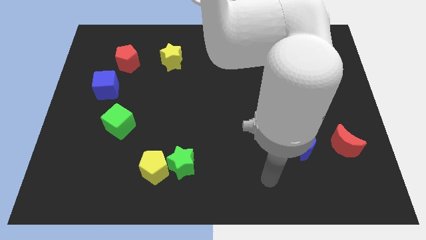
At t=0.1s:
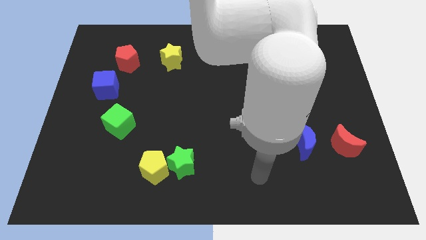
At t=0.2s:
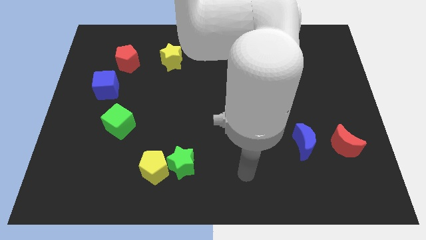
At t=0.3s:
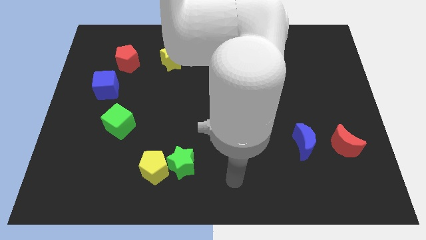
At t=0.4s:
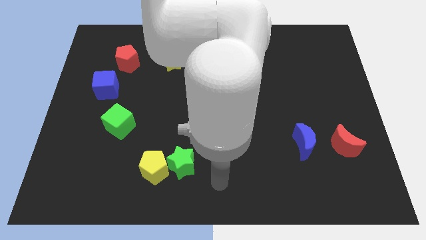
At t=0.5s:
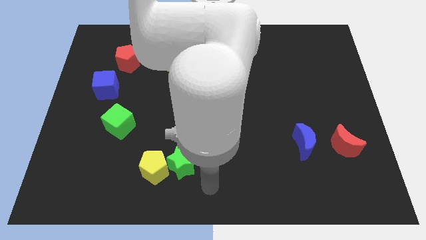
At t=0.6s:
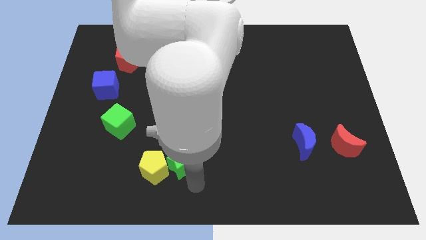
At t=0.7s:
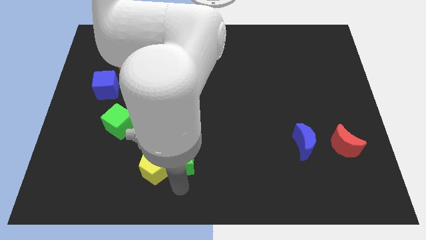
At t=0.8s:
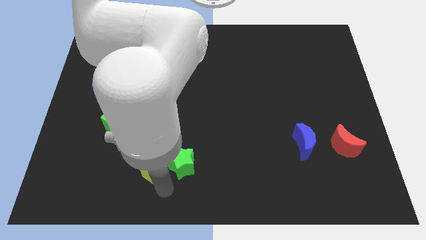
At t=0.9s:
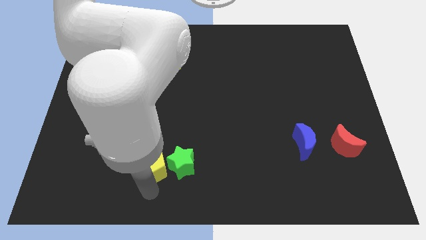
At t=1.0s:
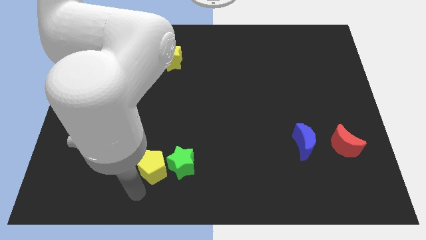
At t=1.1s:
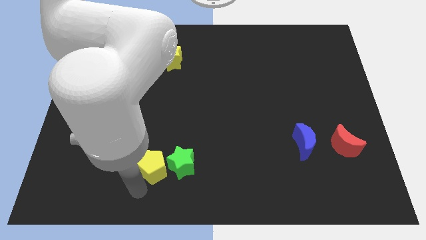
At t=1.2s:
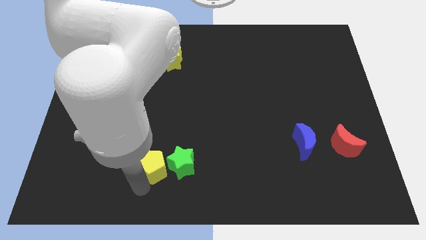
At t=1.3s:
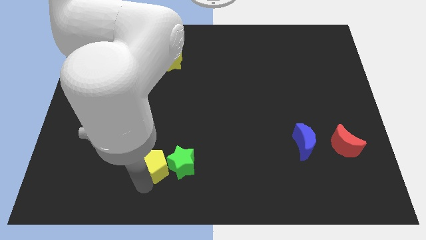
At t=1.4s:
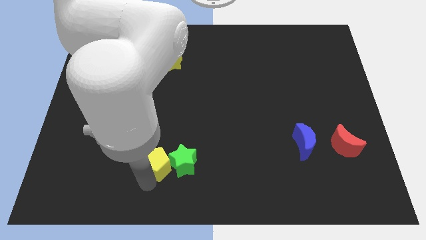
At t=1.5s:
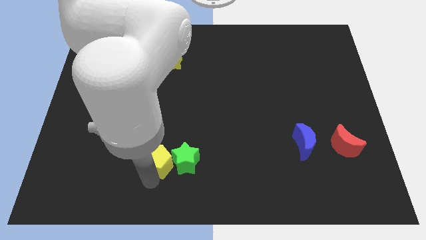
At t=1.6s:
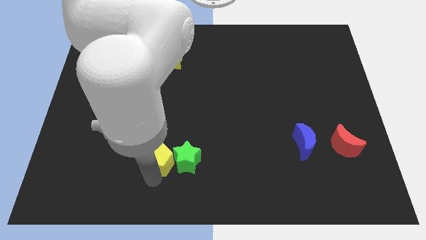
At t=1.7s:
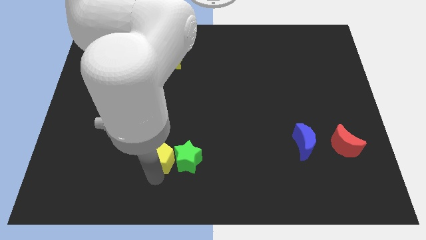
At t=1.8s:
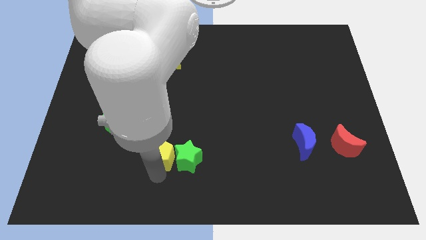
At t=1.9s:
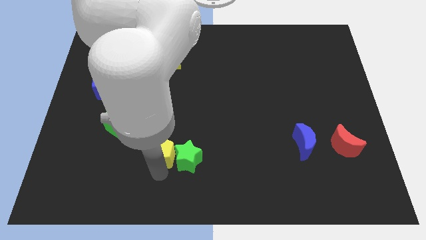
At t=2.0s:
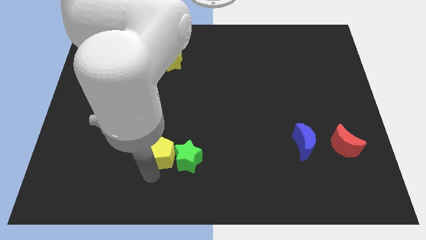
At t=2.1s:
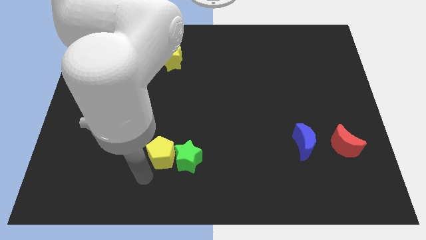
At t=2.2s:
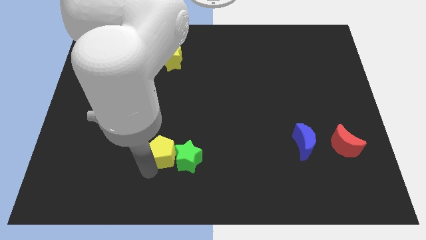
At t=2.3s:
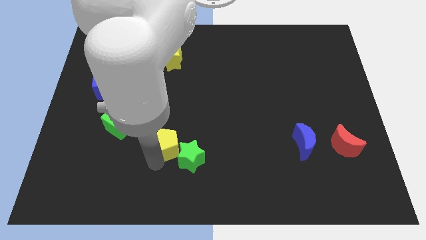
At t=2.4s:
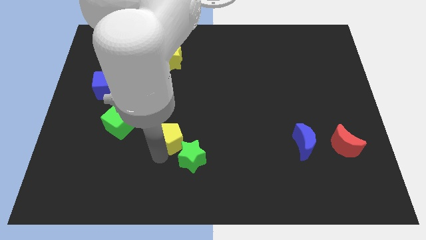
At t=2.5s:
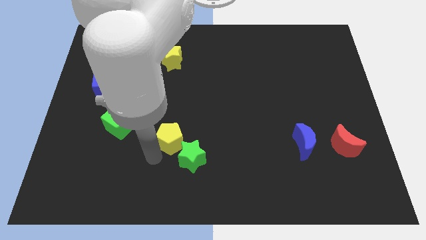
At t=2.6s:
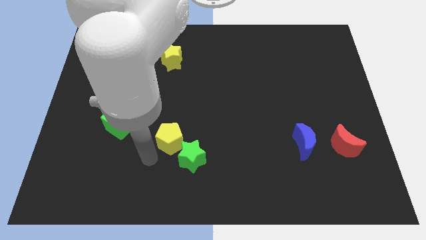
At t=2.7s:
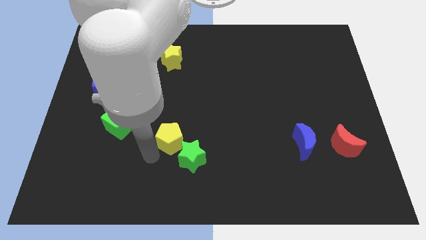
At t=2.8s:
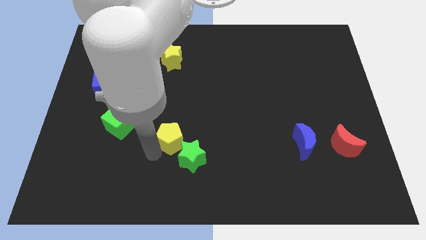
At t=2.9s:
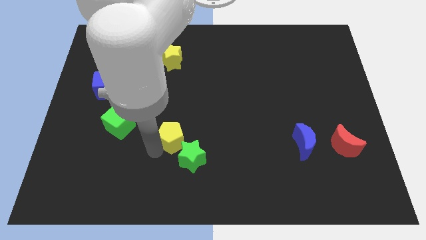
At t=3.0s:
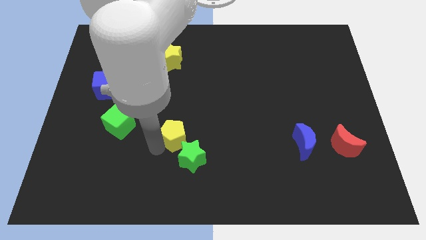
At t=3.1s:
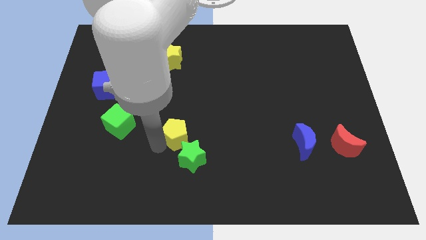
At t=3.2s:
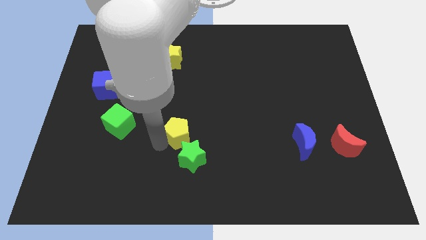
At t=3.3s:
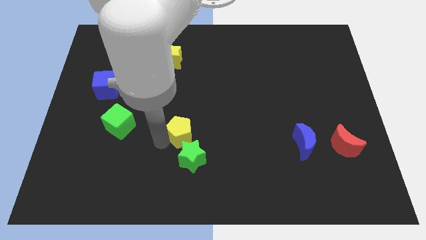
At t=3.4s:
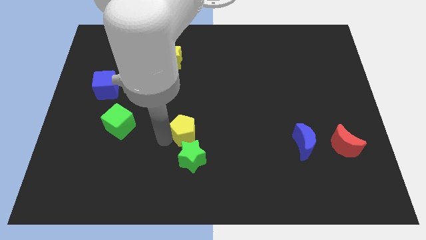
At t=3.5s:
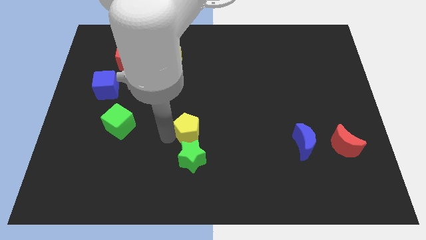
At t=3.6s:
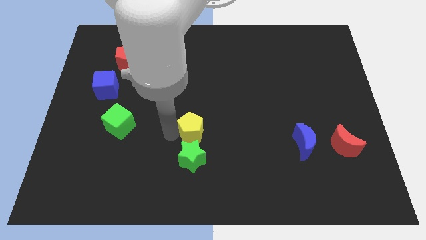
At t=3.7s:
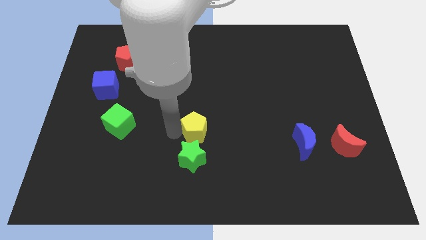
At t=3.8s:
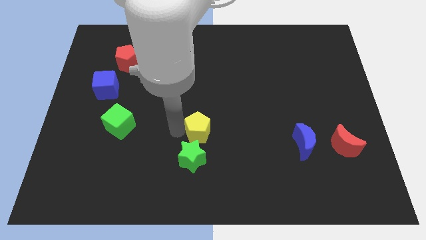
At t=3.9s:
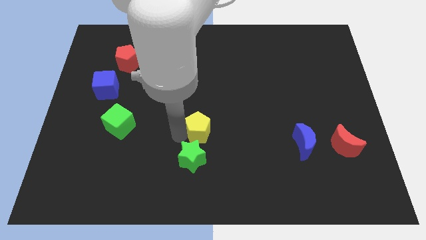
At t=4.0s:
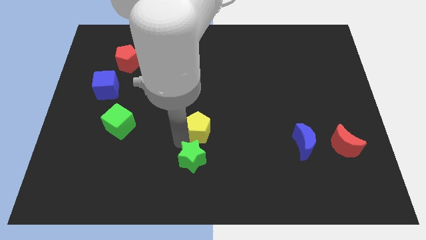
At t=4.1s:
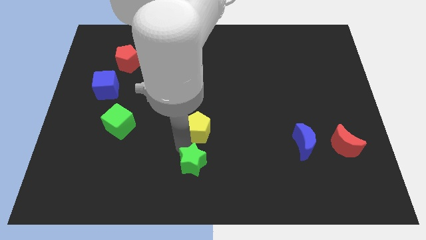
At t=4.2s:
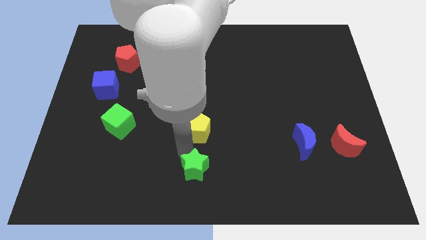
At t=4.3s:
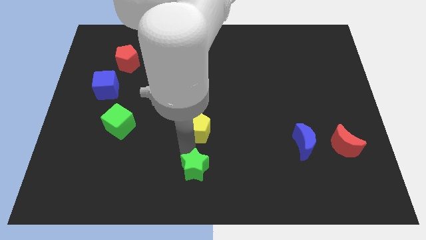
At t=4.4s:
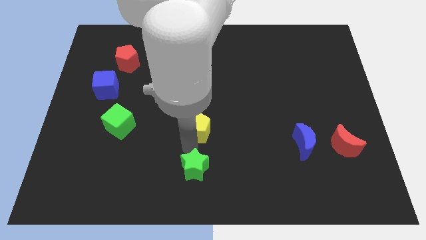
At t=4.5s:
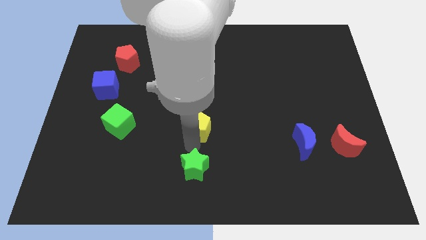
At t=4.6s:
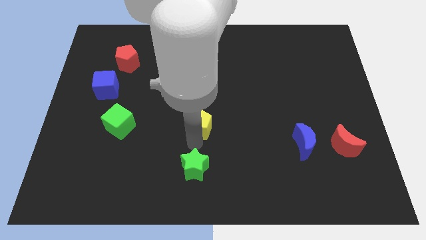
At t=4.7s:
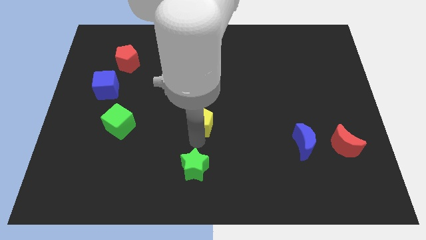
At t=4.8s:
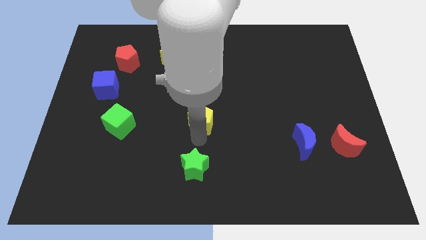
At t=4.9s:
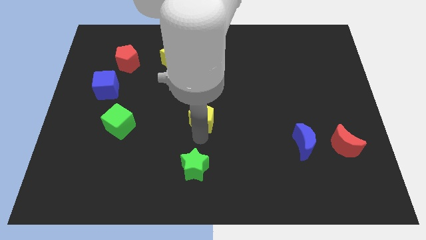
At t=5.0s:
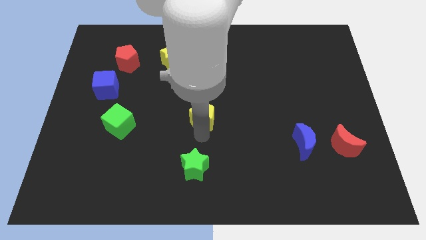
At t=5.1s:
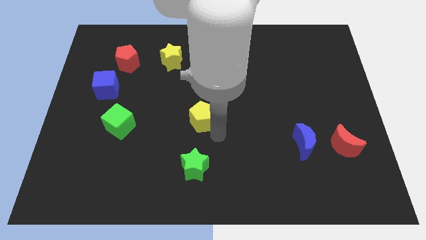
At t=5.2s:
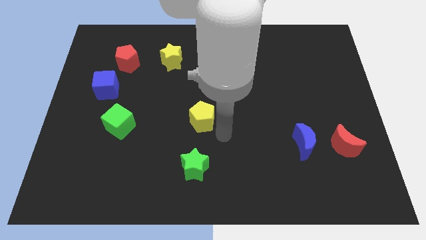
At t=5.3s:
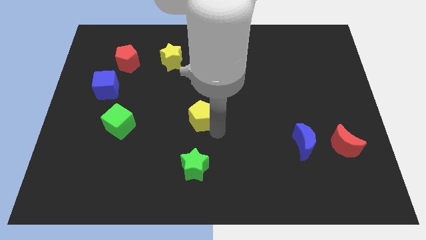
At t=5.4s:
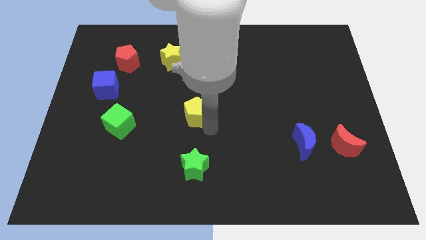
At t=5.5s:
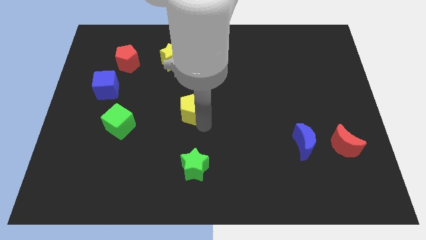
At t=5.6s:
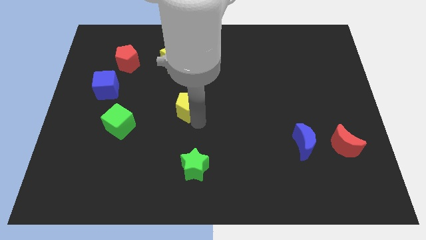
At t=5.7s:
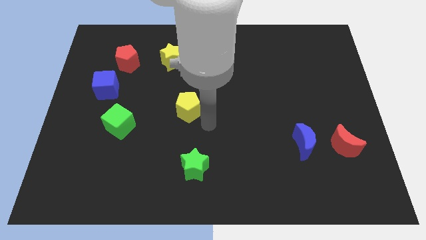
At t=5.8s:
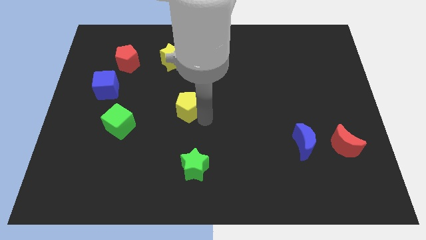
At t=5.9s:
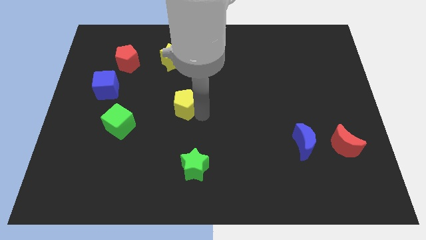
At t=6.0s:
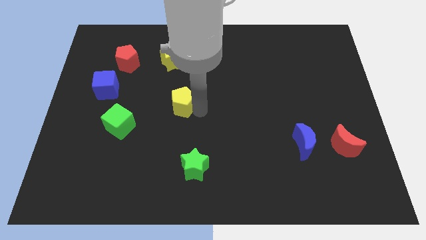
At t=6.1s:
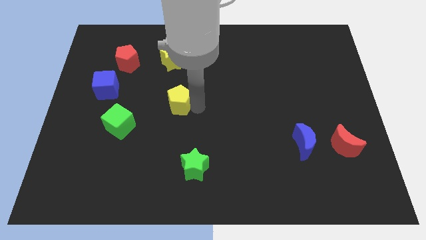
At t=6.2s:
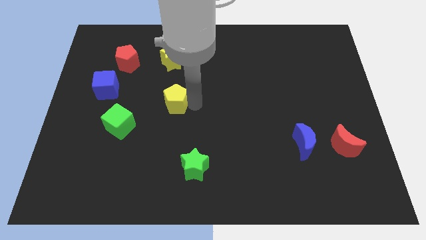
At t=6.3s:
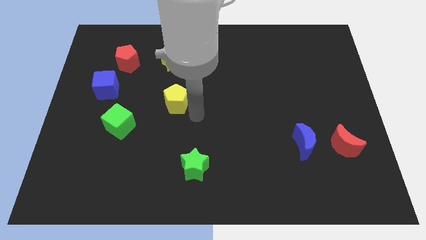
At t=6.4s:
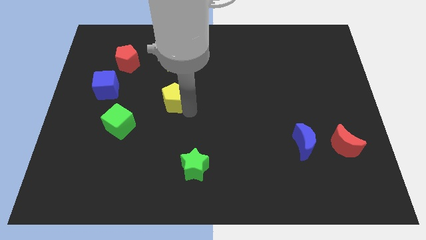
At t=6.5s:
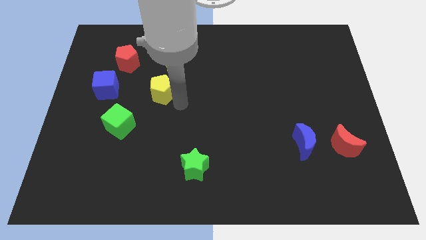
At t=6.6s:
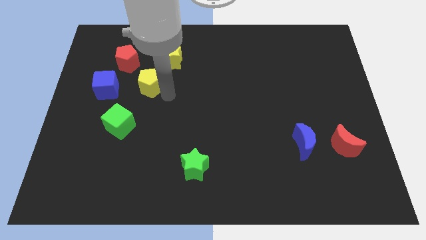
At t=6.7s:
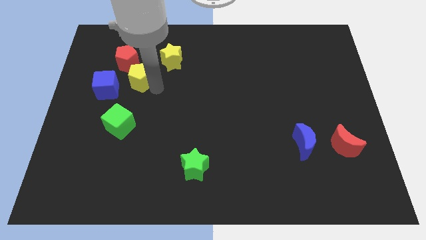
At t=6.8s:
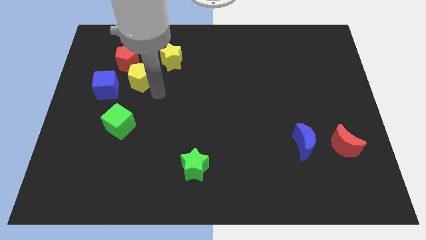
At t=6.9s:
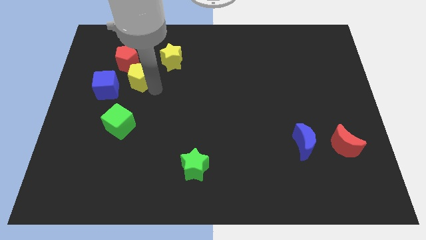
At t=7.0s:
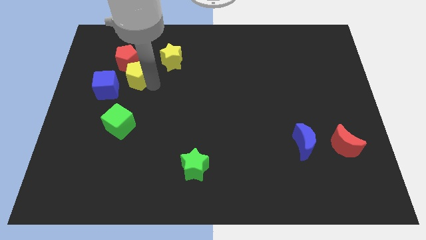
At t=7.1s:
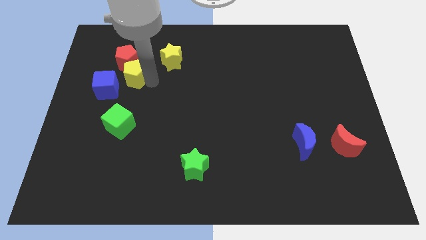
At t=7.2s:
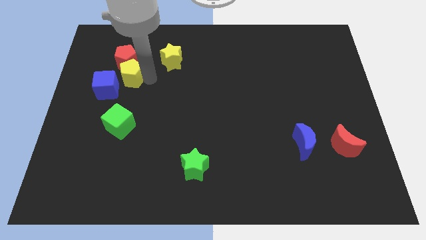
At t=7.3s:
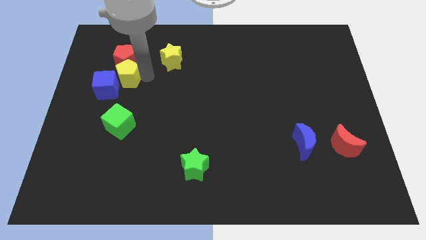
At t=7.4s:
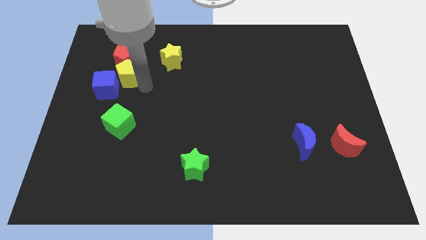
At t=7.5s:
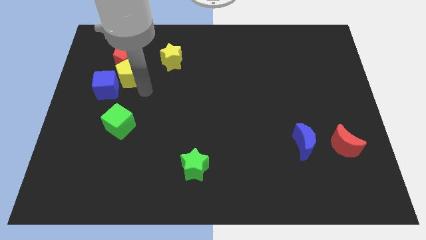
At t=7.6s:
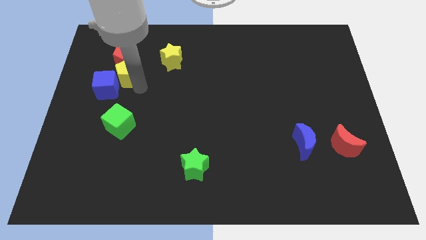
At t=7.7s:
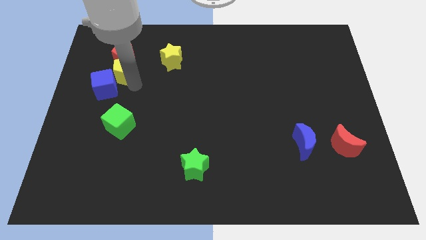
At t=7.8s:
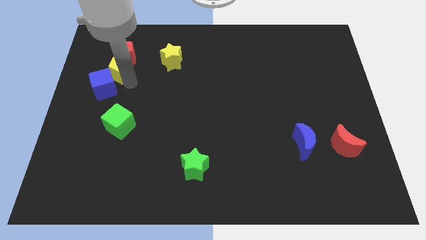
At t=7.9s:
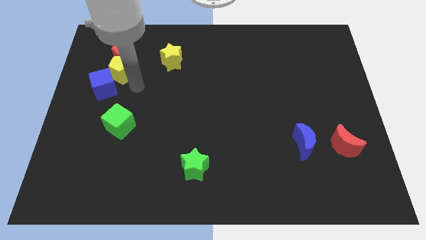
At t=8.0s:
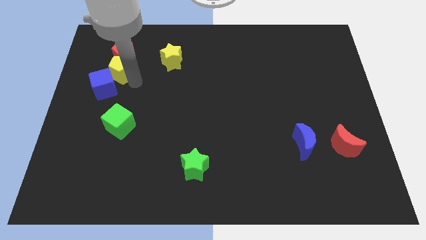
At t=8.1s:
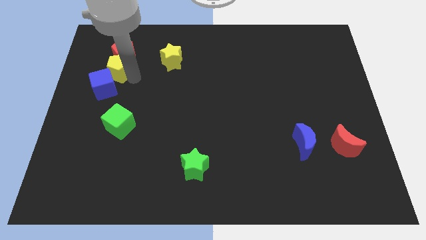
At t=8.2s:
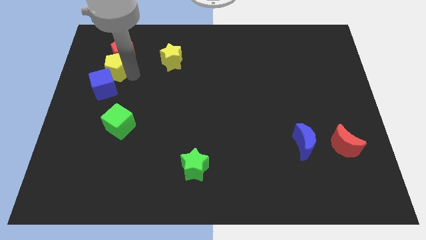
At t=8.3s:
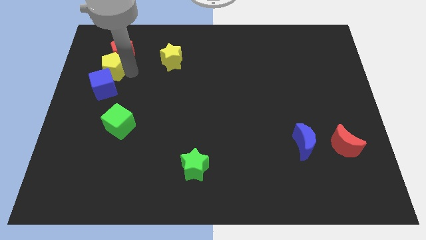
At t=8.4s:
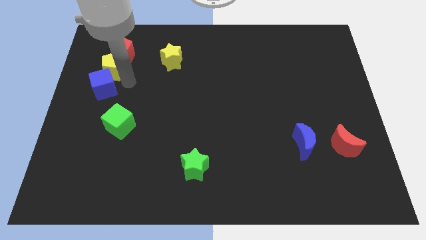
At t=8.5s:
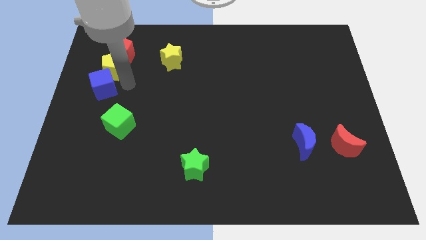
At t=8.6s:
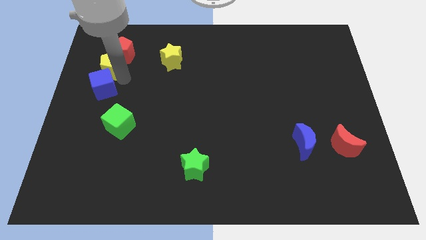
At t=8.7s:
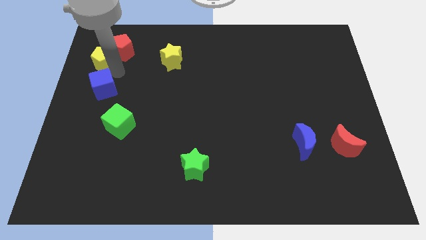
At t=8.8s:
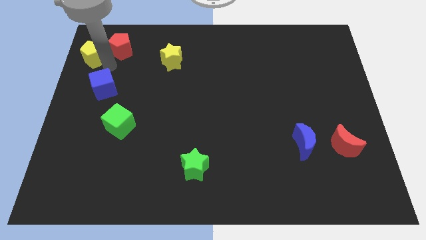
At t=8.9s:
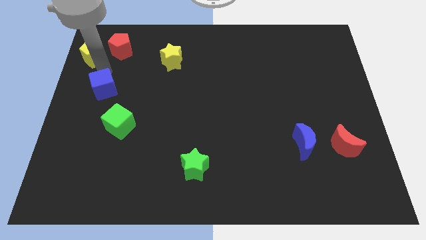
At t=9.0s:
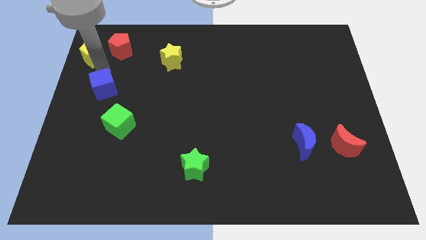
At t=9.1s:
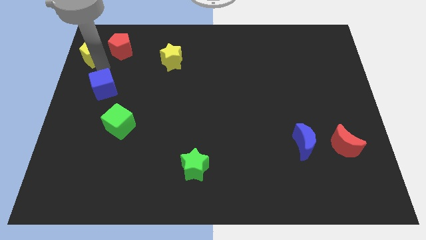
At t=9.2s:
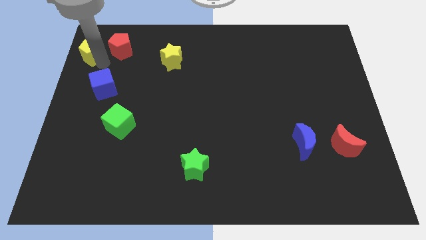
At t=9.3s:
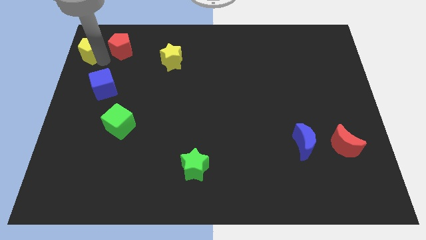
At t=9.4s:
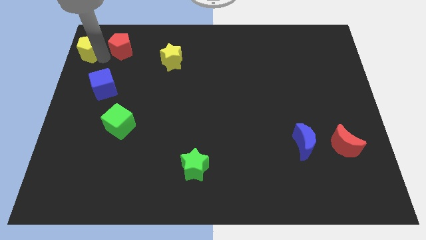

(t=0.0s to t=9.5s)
slide the yellow pentagon to the top left corner
